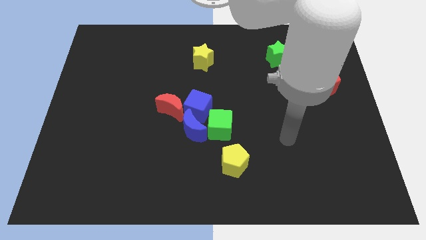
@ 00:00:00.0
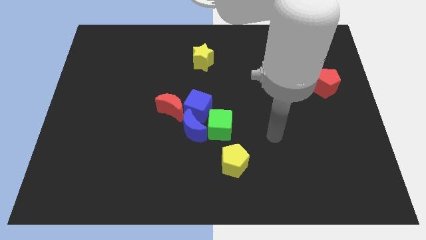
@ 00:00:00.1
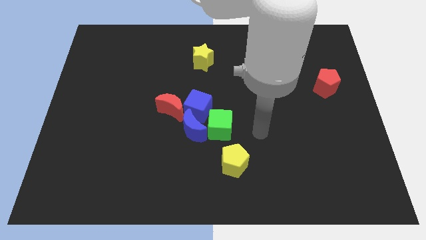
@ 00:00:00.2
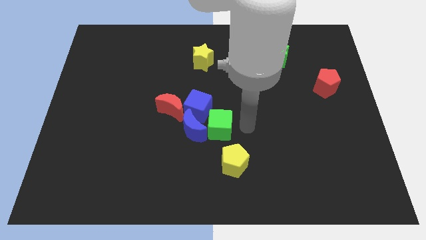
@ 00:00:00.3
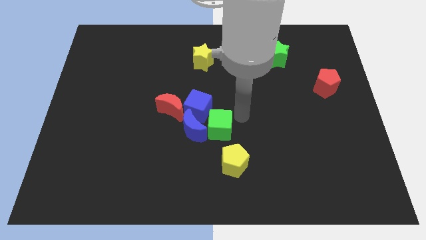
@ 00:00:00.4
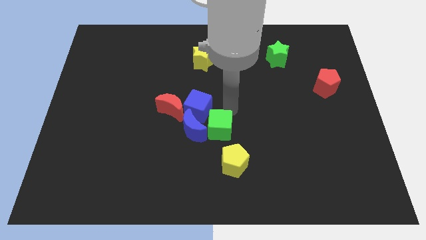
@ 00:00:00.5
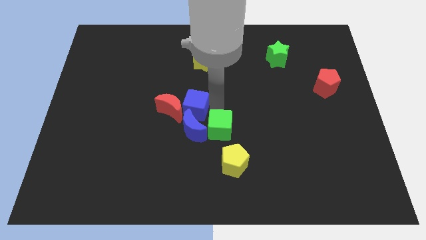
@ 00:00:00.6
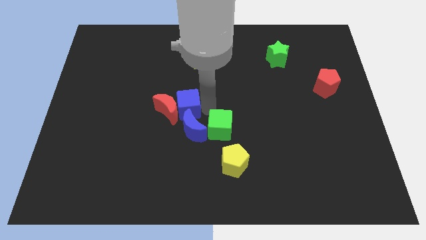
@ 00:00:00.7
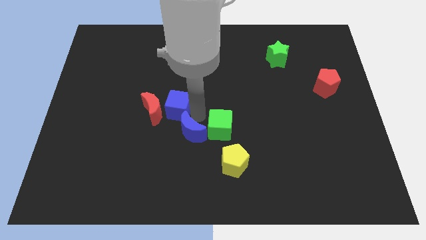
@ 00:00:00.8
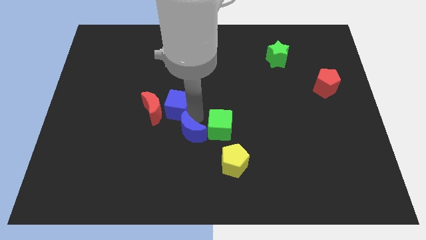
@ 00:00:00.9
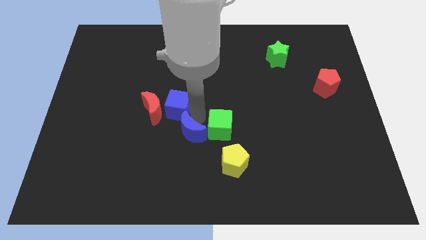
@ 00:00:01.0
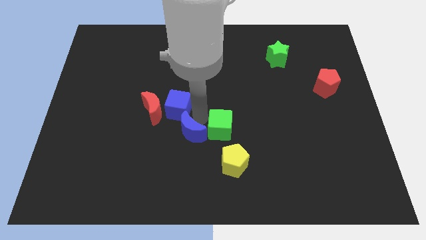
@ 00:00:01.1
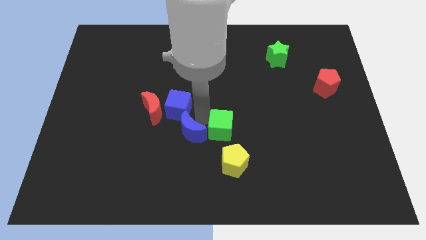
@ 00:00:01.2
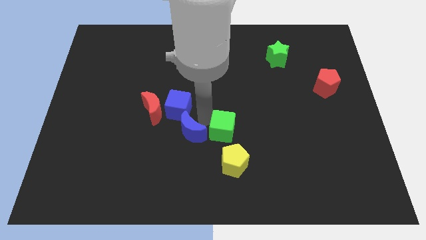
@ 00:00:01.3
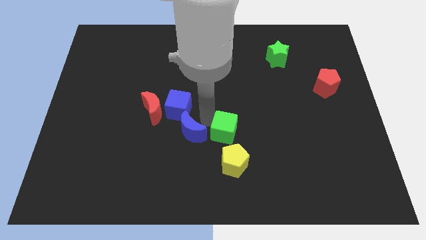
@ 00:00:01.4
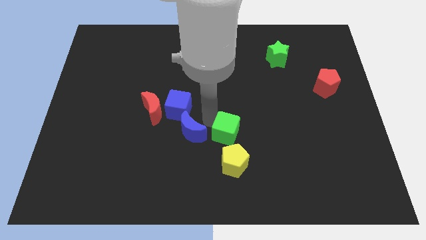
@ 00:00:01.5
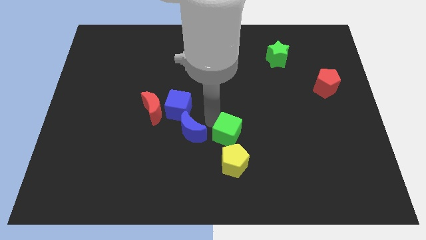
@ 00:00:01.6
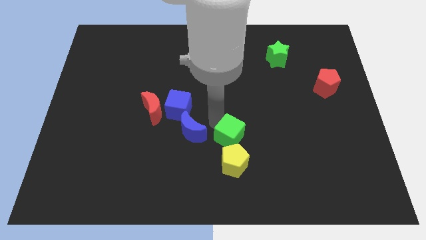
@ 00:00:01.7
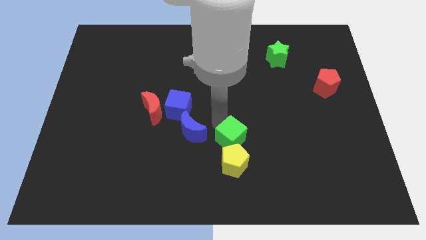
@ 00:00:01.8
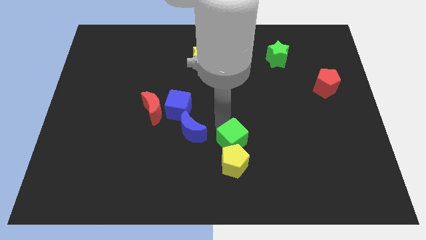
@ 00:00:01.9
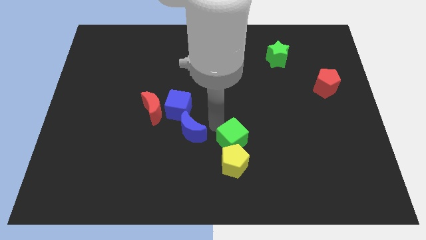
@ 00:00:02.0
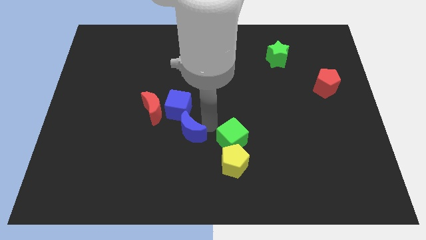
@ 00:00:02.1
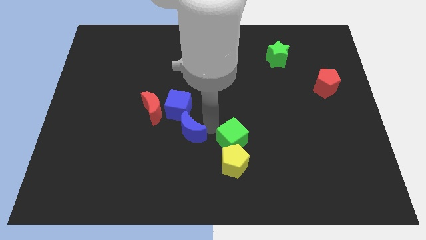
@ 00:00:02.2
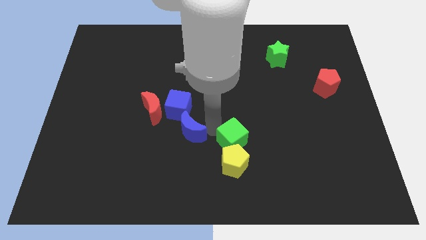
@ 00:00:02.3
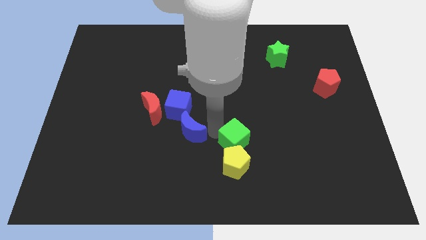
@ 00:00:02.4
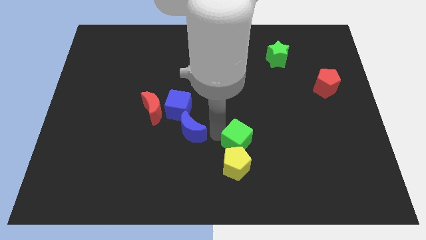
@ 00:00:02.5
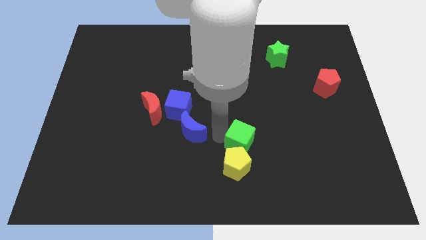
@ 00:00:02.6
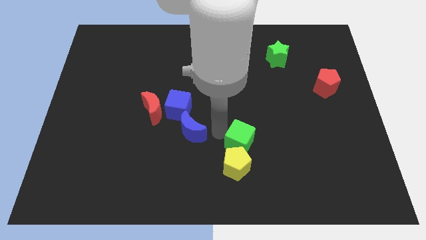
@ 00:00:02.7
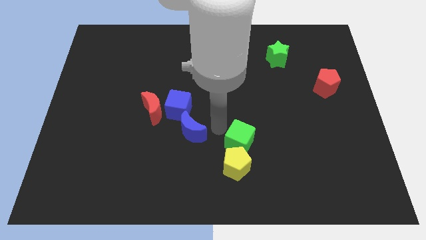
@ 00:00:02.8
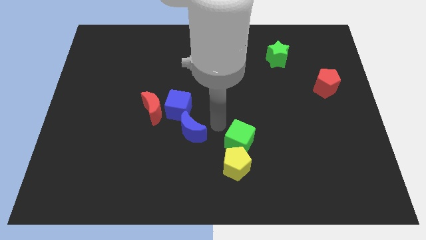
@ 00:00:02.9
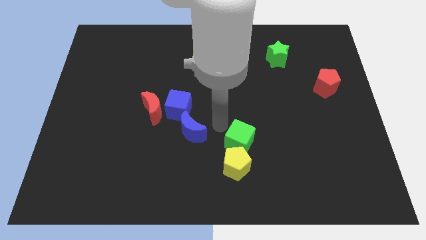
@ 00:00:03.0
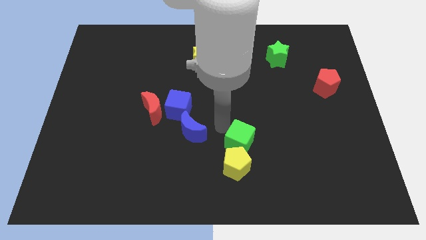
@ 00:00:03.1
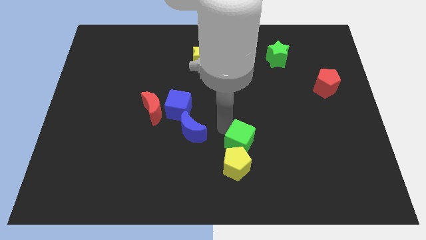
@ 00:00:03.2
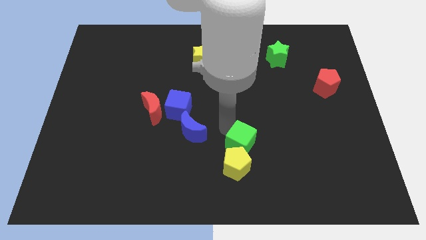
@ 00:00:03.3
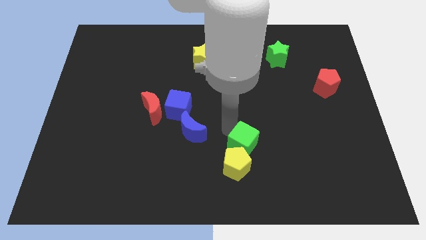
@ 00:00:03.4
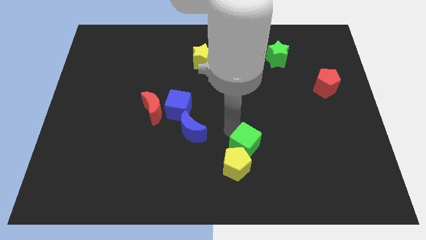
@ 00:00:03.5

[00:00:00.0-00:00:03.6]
push the green cube a bit diagonally down and to the right

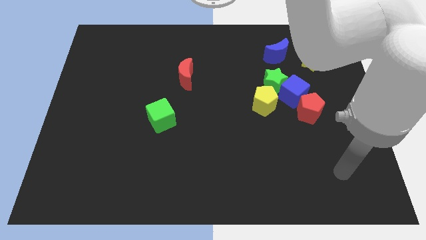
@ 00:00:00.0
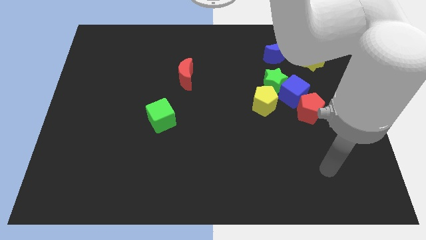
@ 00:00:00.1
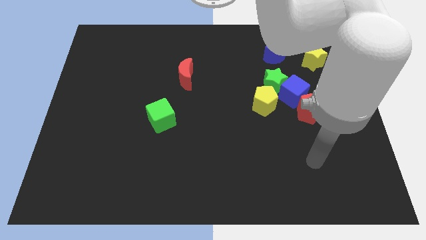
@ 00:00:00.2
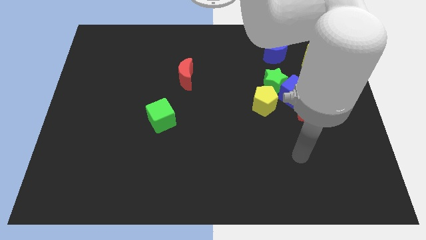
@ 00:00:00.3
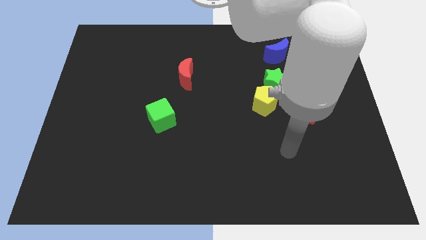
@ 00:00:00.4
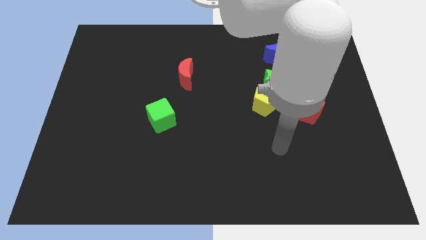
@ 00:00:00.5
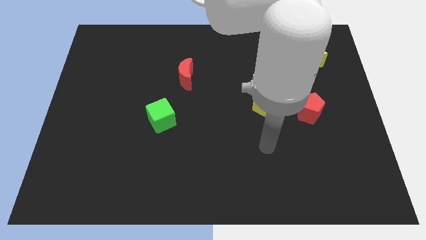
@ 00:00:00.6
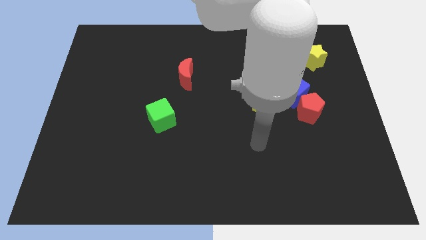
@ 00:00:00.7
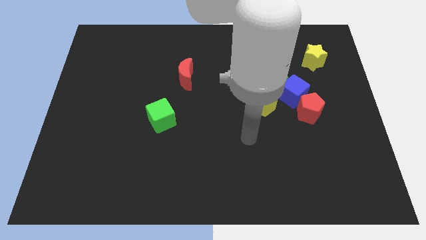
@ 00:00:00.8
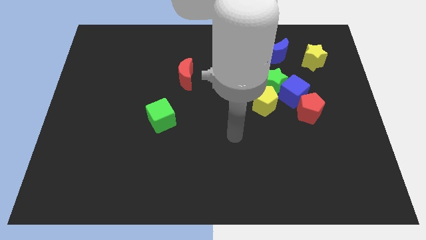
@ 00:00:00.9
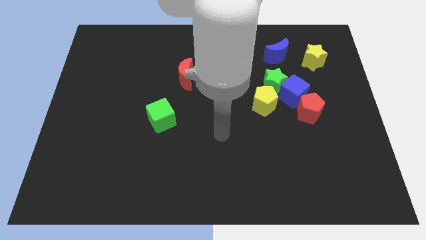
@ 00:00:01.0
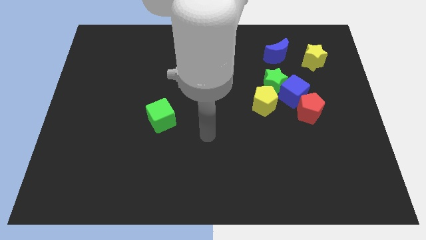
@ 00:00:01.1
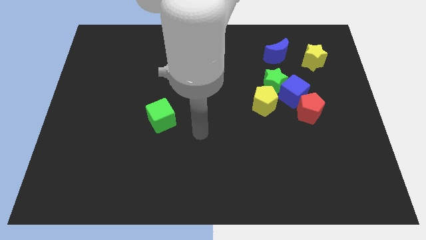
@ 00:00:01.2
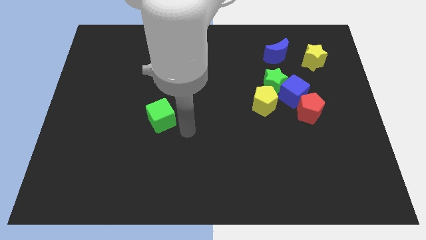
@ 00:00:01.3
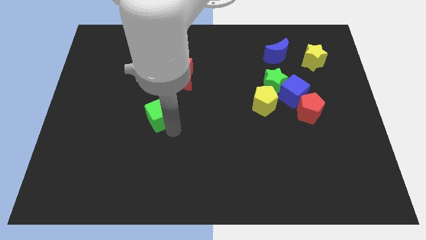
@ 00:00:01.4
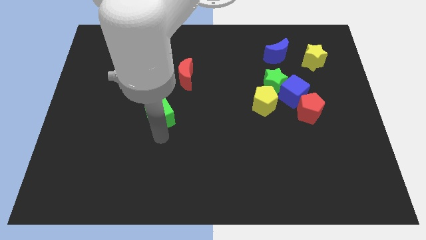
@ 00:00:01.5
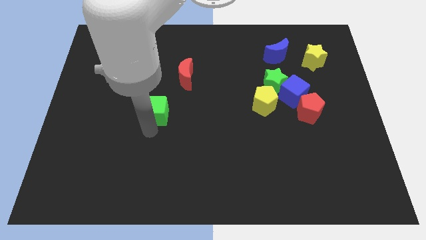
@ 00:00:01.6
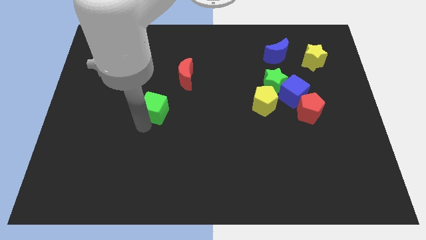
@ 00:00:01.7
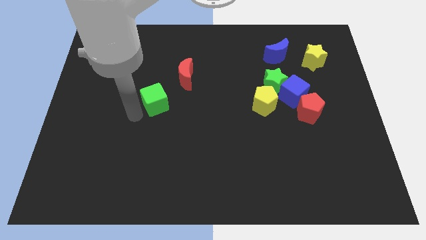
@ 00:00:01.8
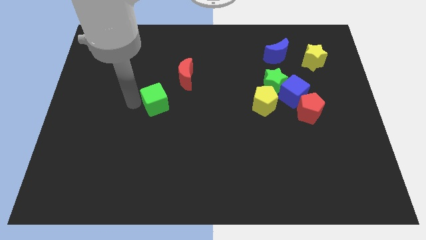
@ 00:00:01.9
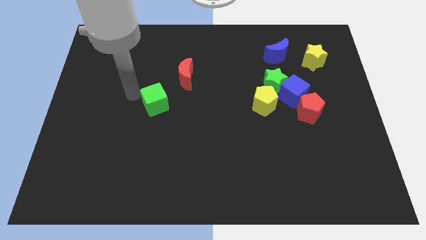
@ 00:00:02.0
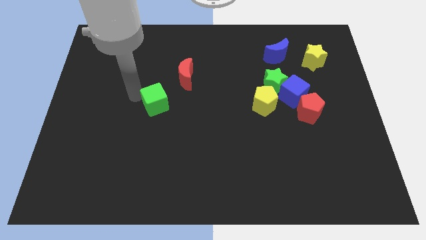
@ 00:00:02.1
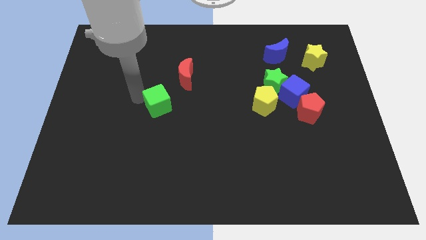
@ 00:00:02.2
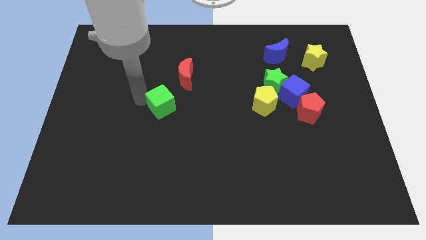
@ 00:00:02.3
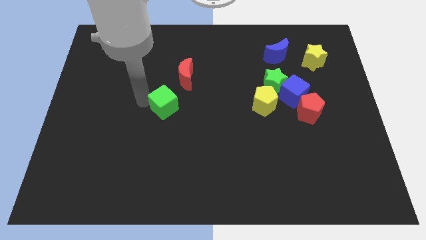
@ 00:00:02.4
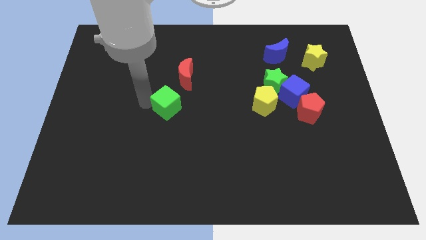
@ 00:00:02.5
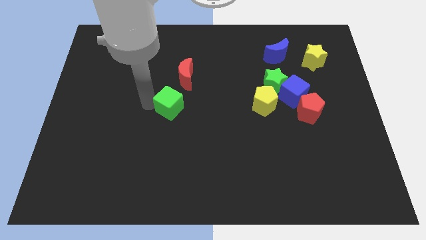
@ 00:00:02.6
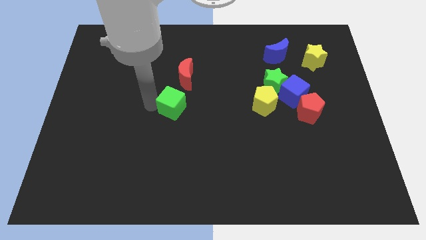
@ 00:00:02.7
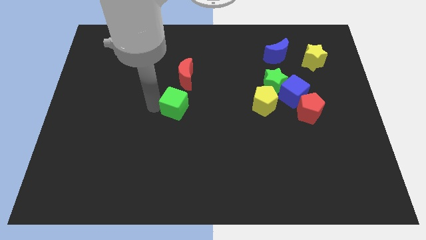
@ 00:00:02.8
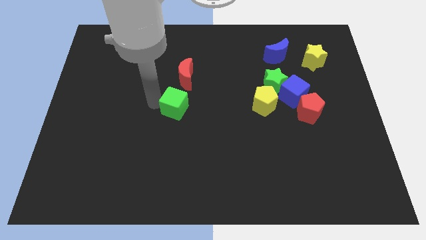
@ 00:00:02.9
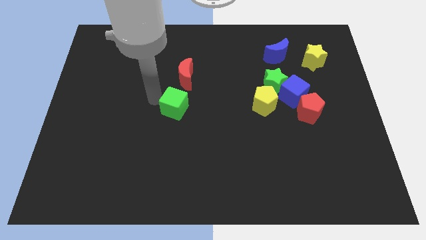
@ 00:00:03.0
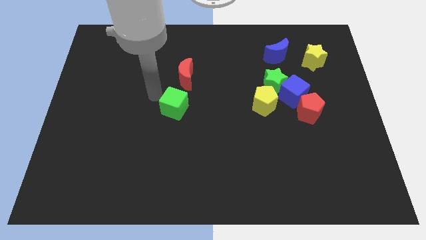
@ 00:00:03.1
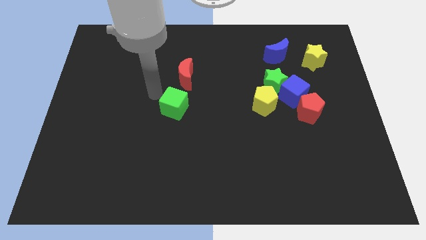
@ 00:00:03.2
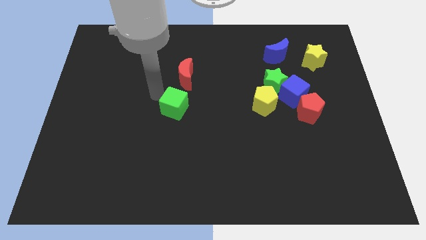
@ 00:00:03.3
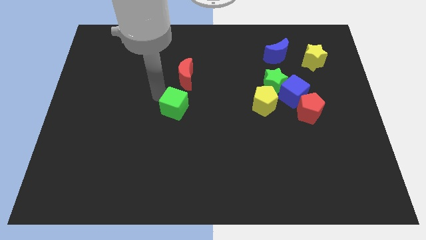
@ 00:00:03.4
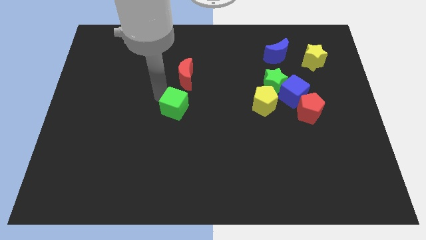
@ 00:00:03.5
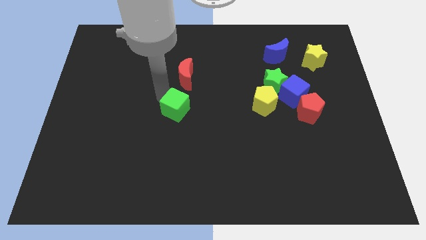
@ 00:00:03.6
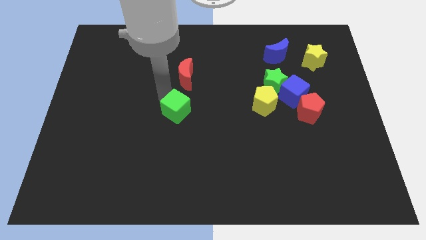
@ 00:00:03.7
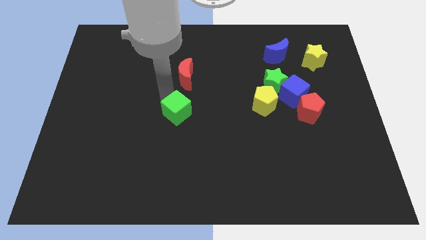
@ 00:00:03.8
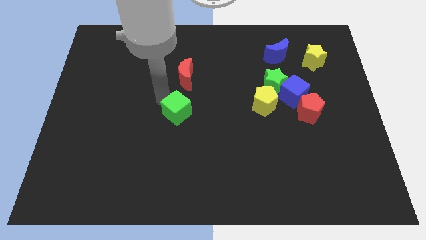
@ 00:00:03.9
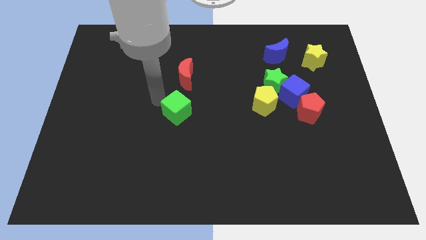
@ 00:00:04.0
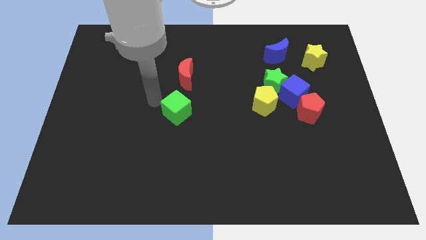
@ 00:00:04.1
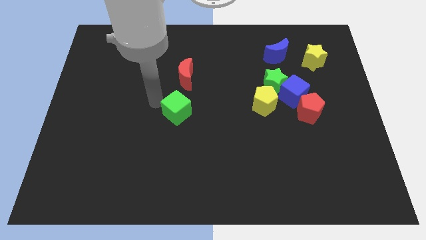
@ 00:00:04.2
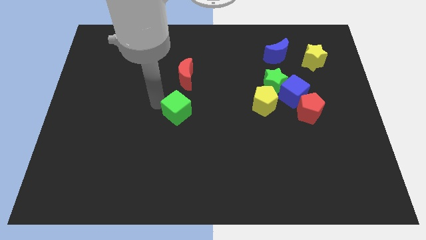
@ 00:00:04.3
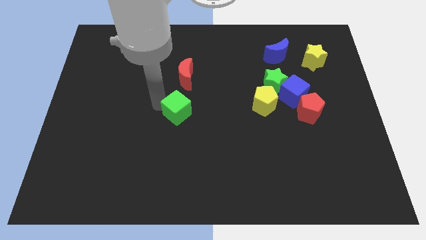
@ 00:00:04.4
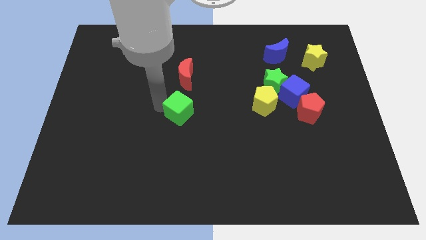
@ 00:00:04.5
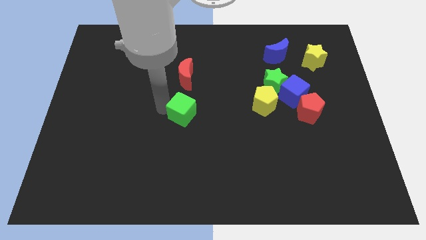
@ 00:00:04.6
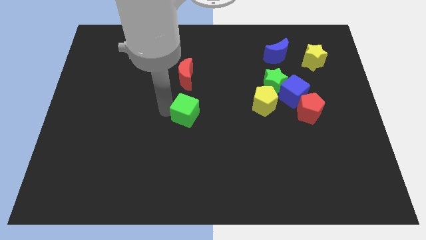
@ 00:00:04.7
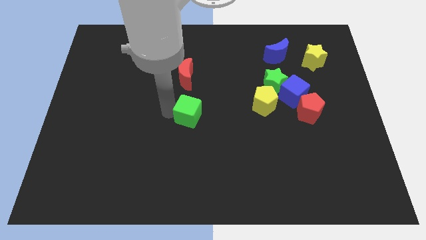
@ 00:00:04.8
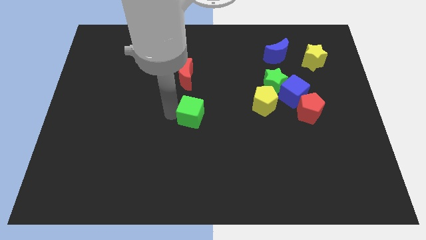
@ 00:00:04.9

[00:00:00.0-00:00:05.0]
move the green cube to the right a bit
